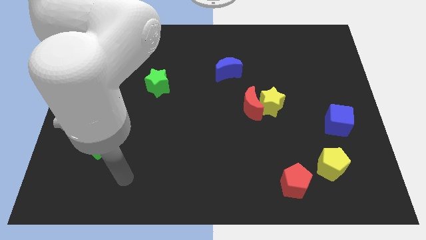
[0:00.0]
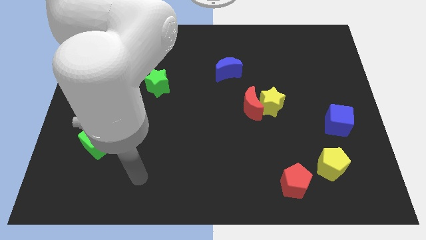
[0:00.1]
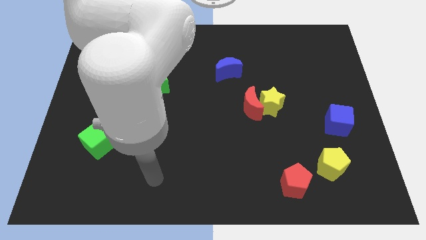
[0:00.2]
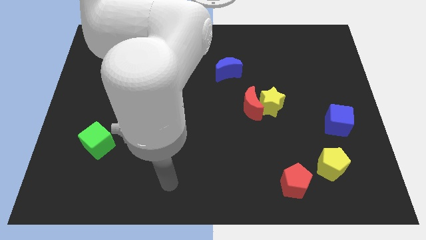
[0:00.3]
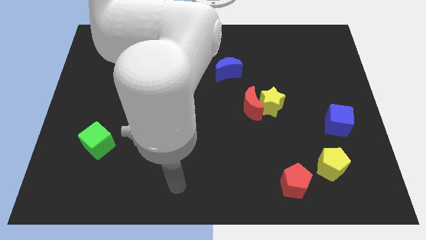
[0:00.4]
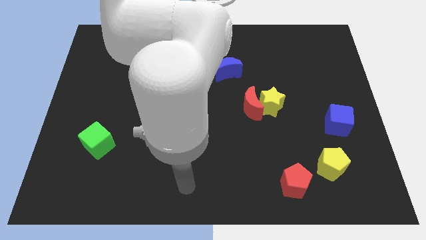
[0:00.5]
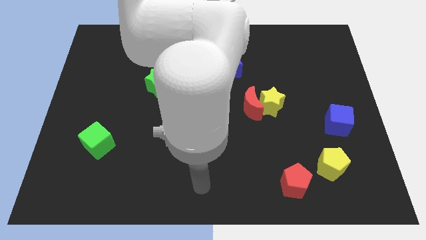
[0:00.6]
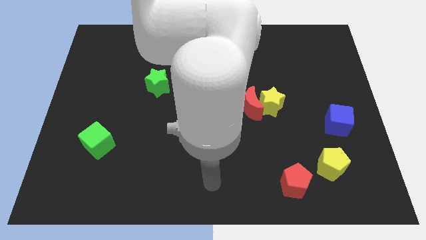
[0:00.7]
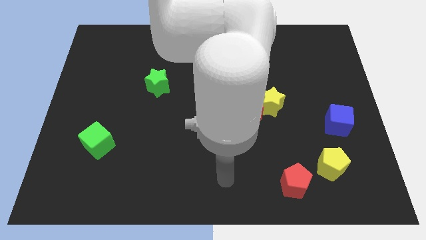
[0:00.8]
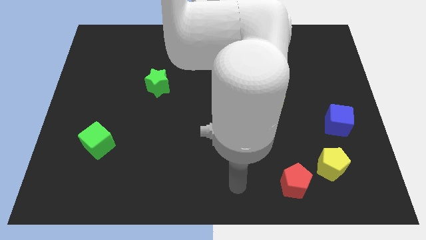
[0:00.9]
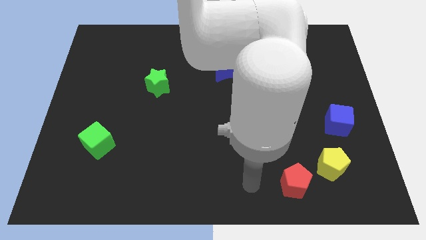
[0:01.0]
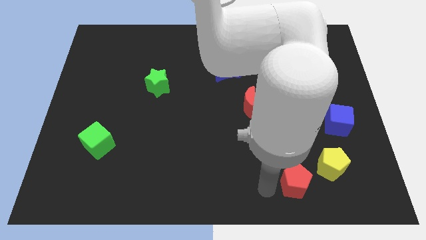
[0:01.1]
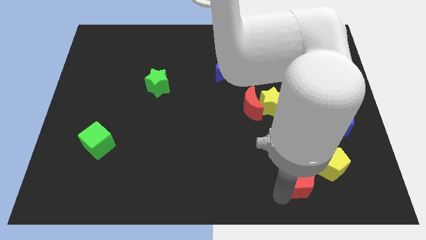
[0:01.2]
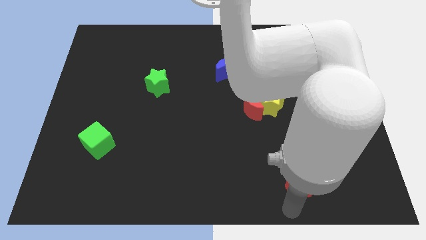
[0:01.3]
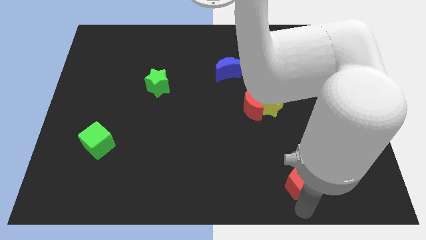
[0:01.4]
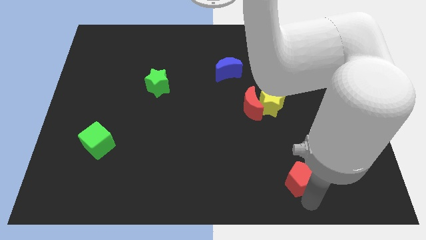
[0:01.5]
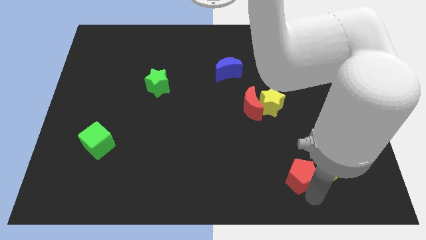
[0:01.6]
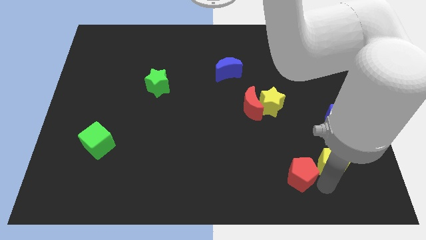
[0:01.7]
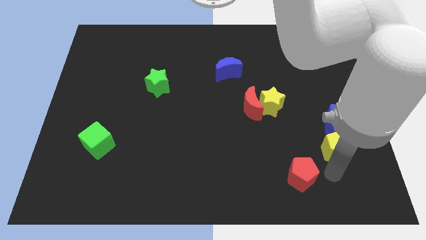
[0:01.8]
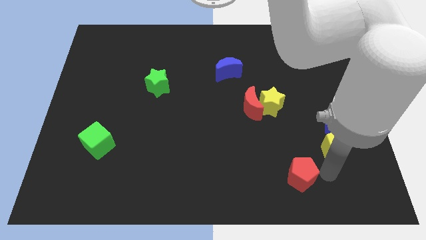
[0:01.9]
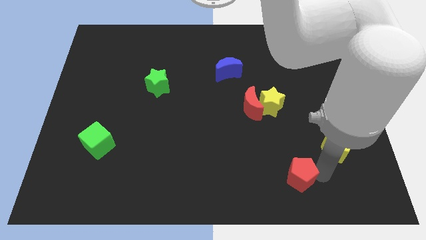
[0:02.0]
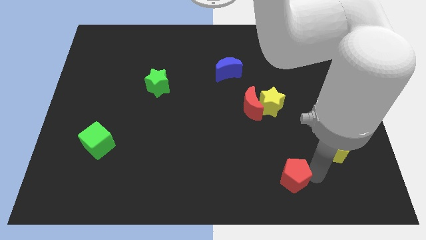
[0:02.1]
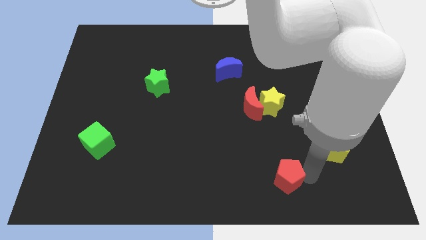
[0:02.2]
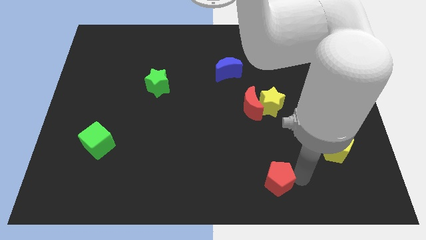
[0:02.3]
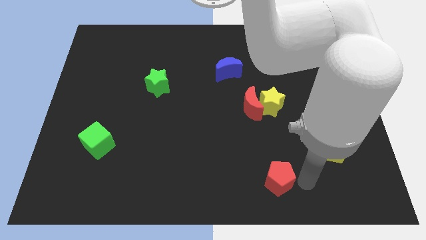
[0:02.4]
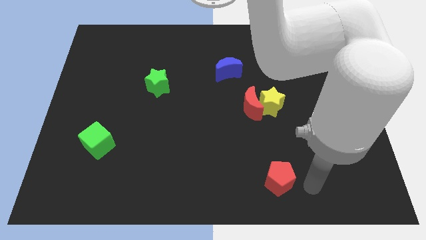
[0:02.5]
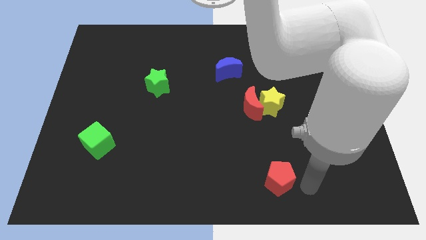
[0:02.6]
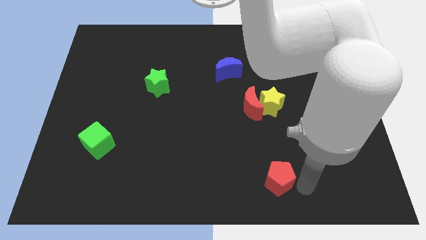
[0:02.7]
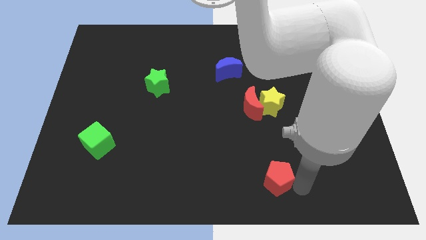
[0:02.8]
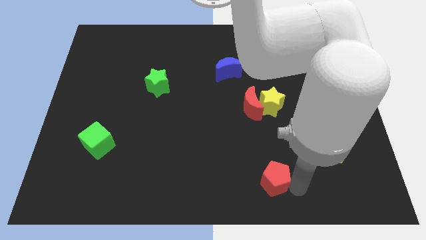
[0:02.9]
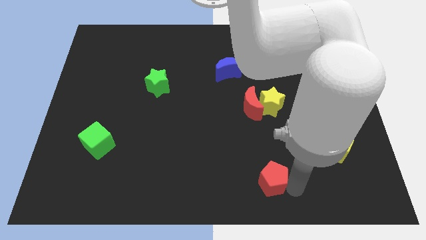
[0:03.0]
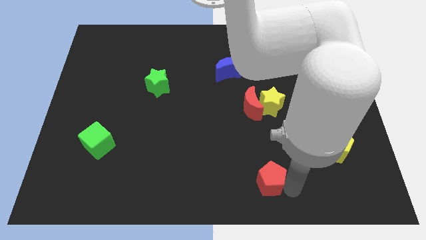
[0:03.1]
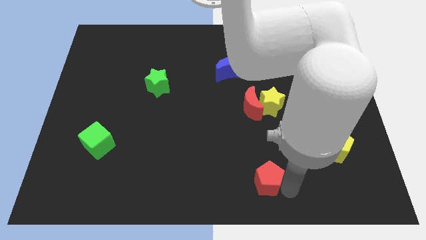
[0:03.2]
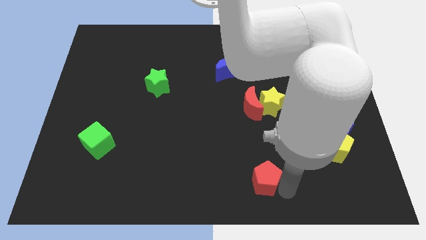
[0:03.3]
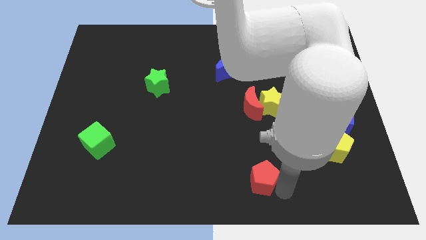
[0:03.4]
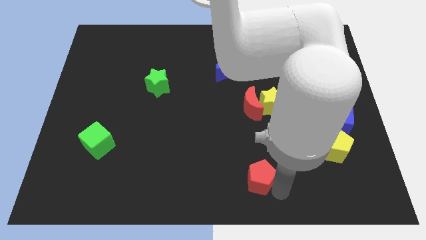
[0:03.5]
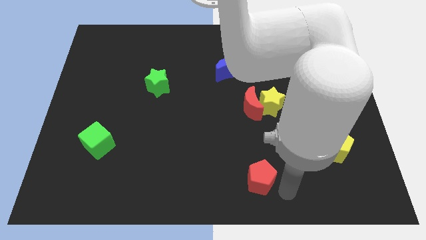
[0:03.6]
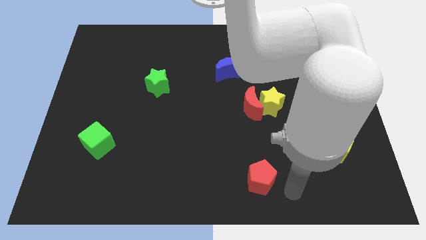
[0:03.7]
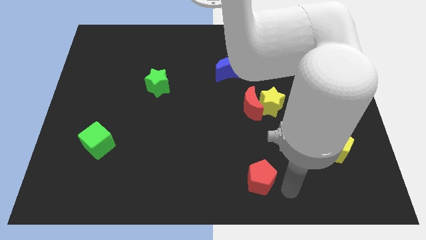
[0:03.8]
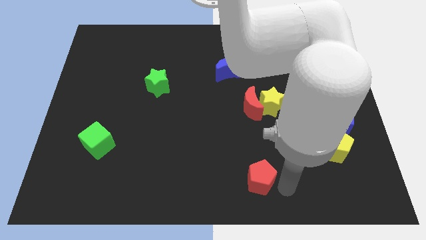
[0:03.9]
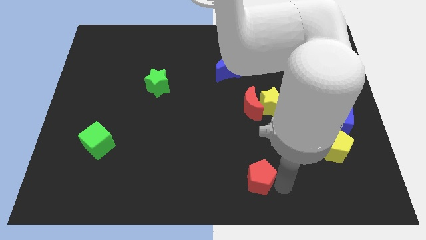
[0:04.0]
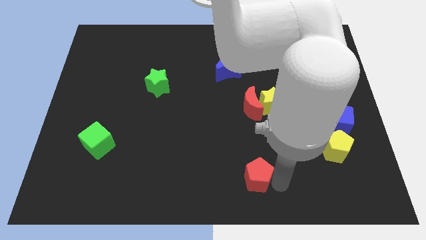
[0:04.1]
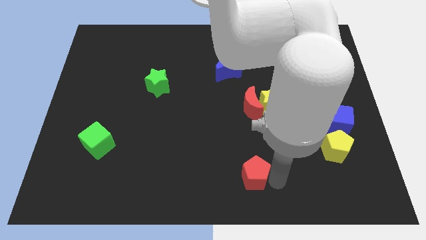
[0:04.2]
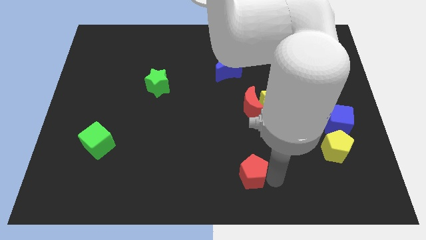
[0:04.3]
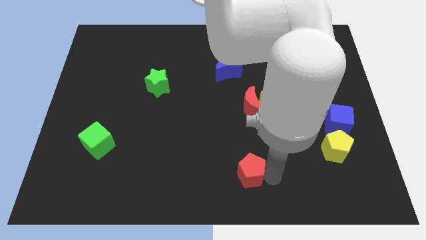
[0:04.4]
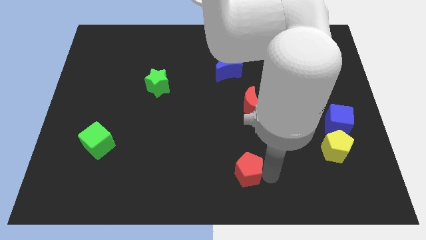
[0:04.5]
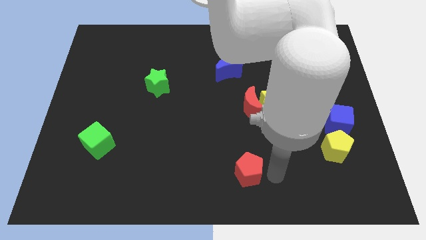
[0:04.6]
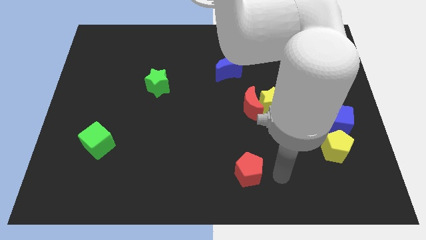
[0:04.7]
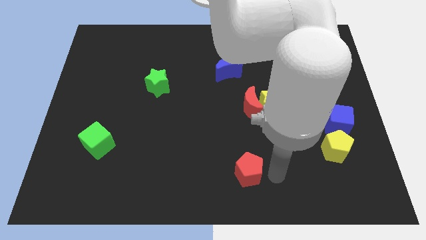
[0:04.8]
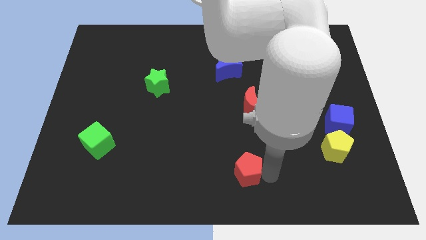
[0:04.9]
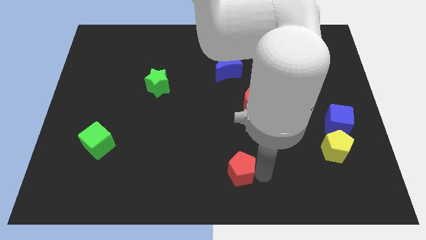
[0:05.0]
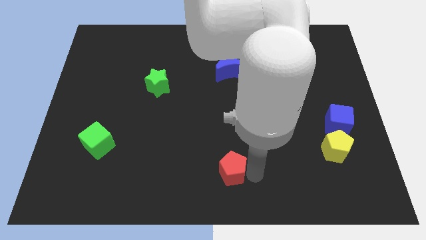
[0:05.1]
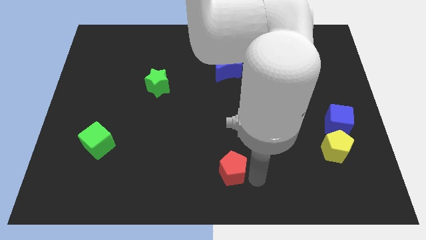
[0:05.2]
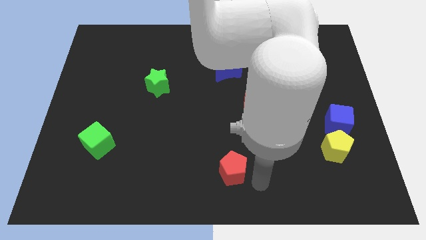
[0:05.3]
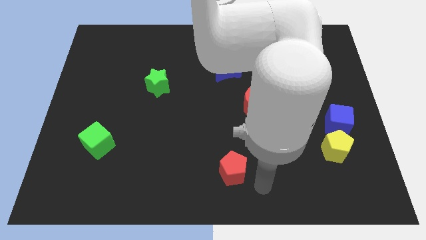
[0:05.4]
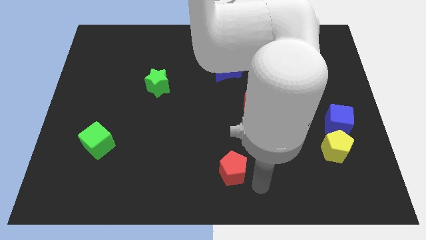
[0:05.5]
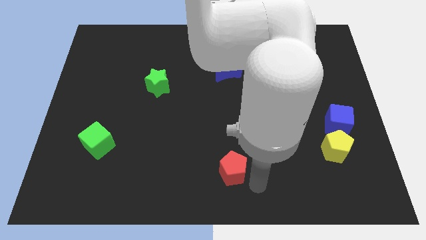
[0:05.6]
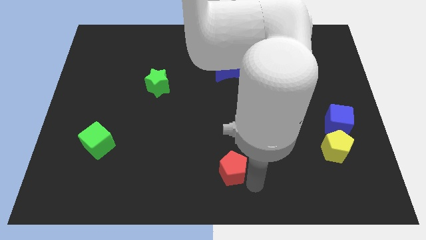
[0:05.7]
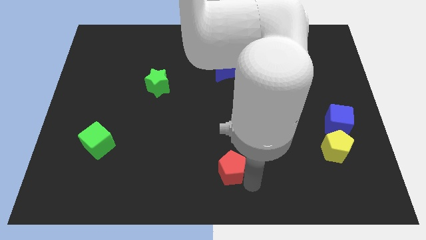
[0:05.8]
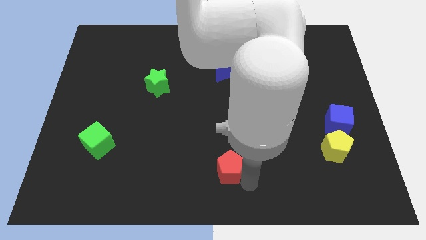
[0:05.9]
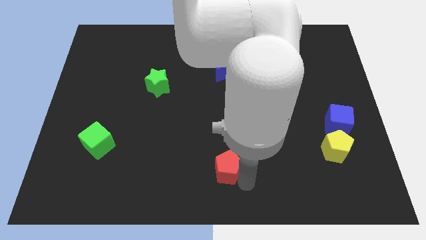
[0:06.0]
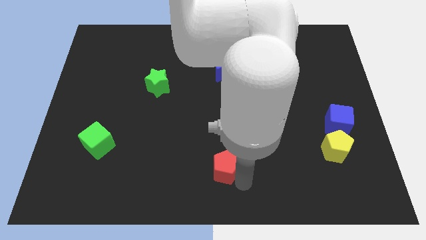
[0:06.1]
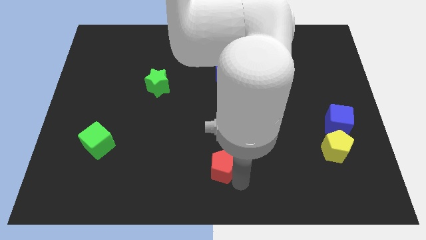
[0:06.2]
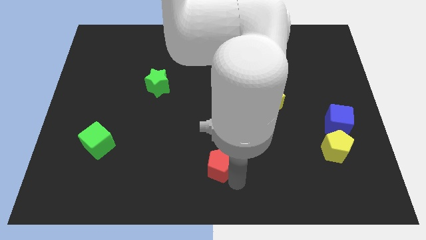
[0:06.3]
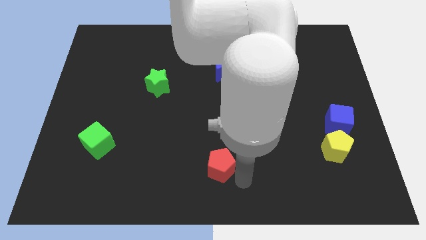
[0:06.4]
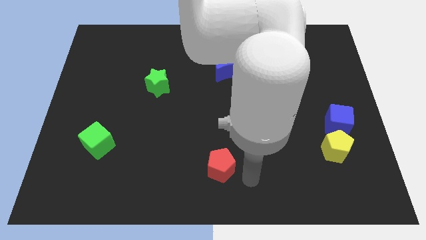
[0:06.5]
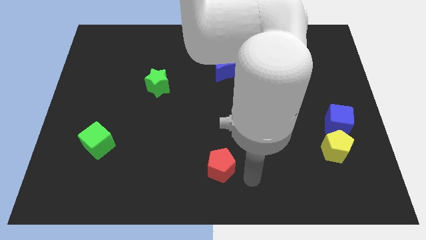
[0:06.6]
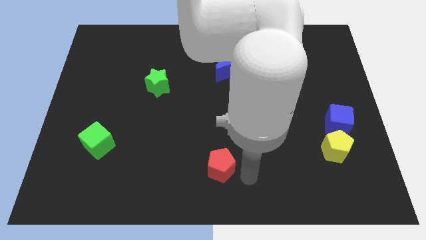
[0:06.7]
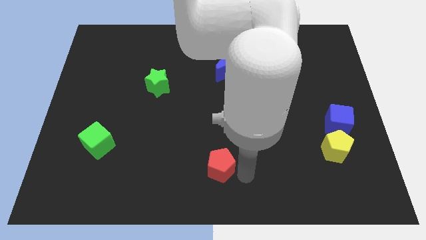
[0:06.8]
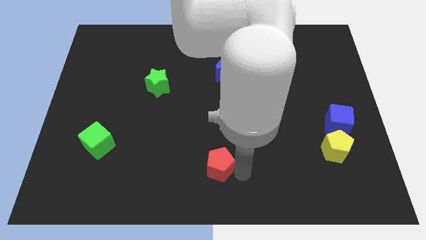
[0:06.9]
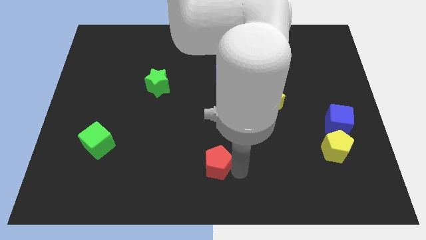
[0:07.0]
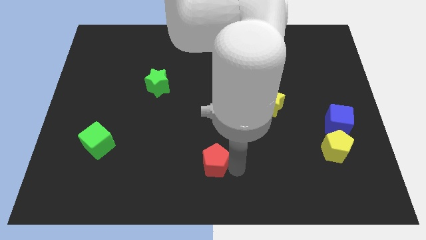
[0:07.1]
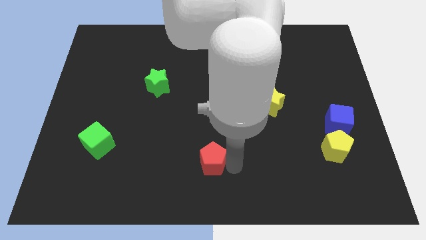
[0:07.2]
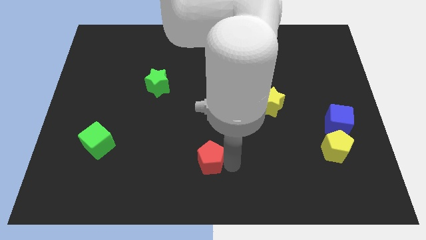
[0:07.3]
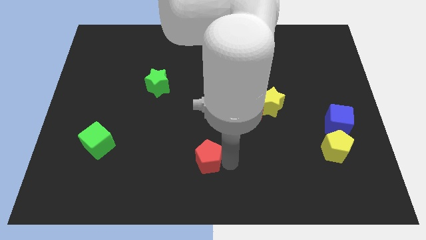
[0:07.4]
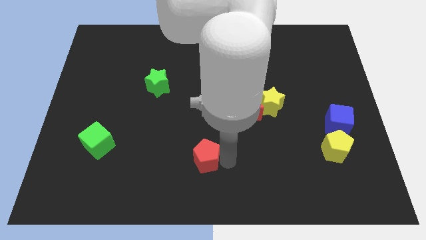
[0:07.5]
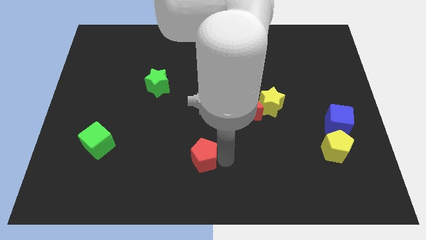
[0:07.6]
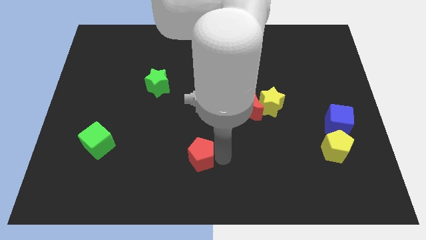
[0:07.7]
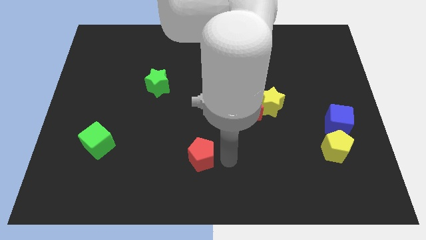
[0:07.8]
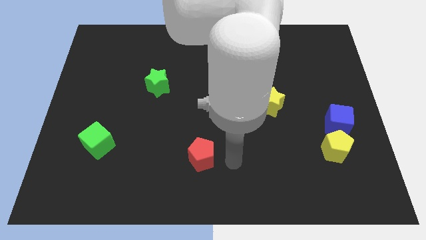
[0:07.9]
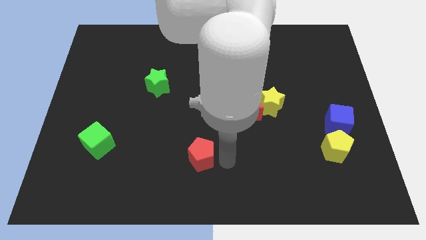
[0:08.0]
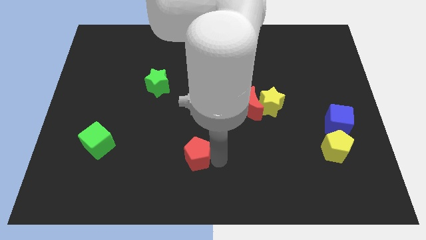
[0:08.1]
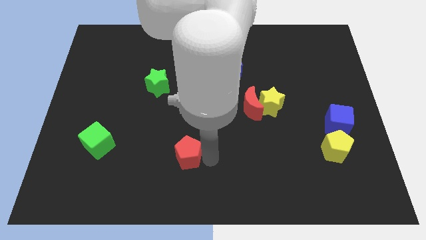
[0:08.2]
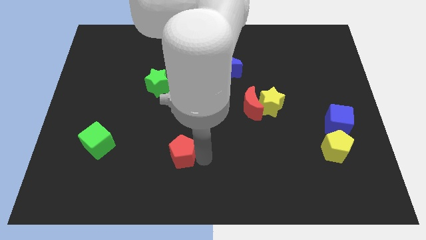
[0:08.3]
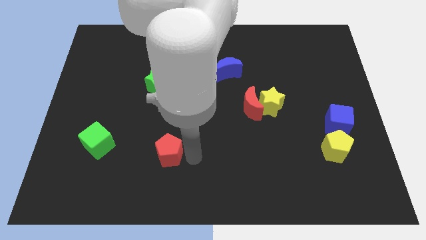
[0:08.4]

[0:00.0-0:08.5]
move the red pentagon just right of the green cube
